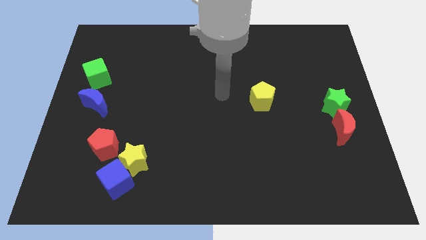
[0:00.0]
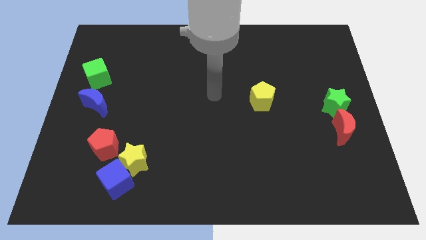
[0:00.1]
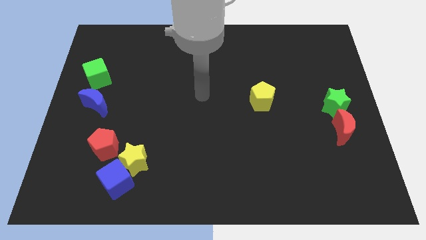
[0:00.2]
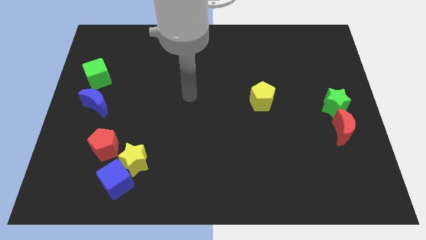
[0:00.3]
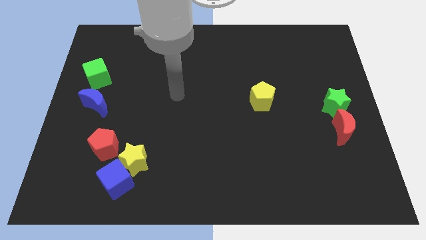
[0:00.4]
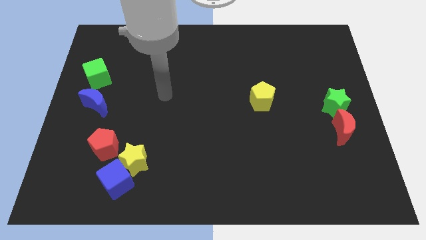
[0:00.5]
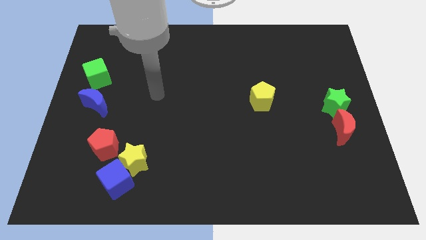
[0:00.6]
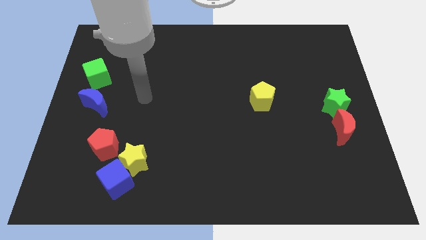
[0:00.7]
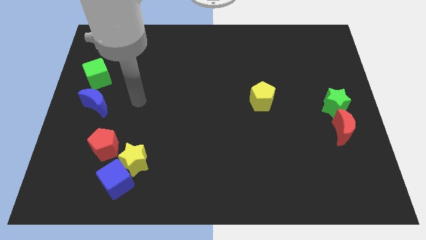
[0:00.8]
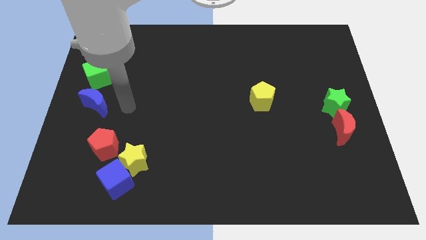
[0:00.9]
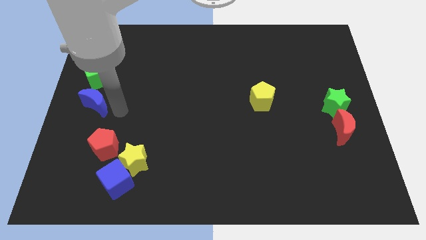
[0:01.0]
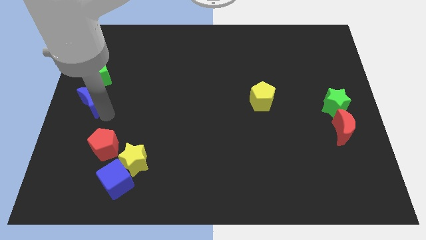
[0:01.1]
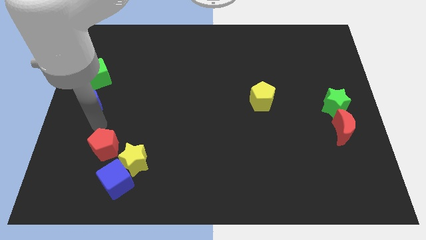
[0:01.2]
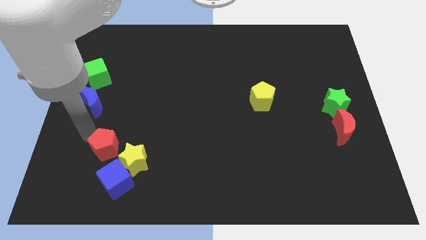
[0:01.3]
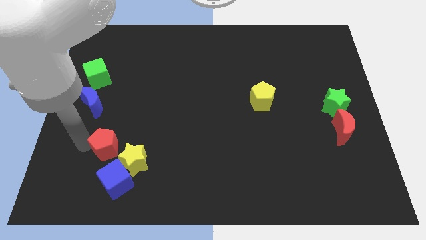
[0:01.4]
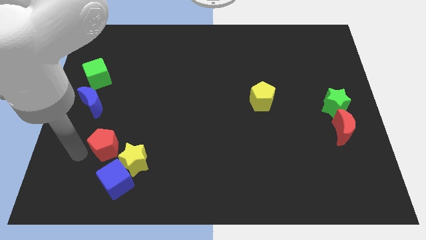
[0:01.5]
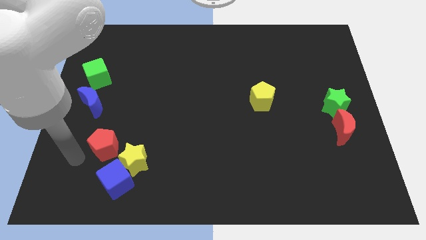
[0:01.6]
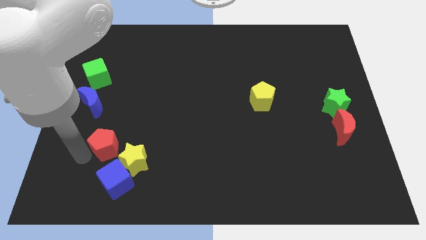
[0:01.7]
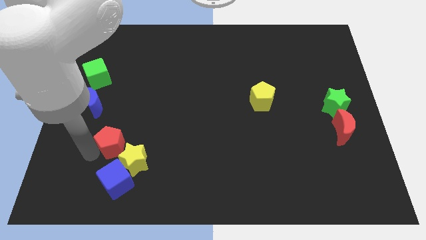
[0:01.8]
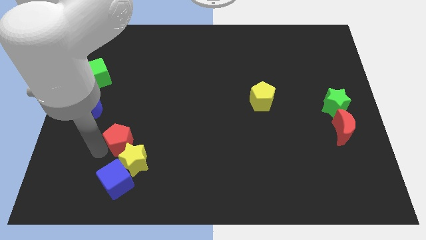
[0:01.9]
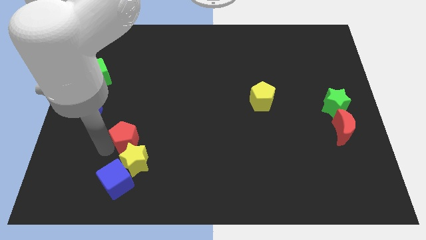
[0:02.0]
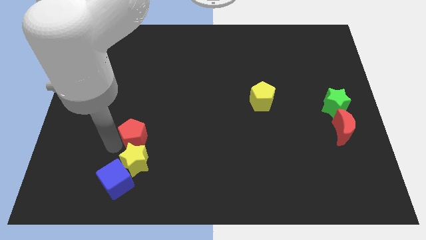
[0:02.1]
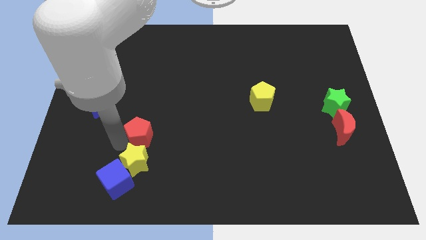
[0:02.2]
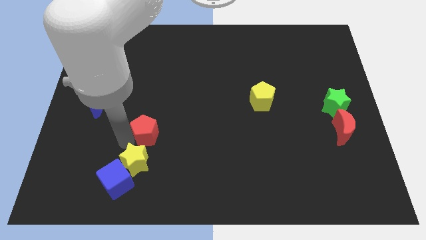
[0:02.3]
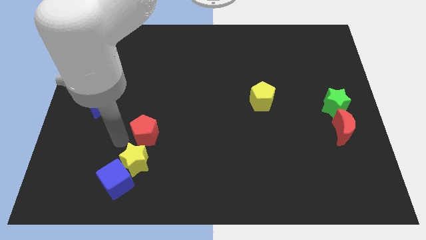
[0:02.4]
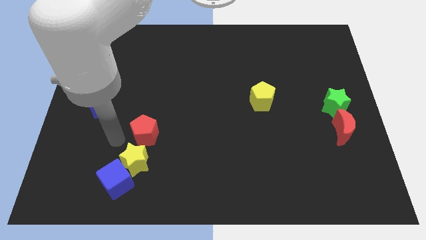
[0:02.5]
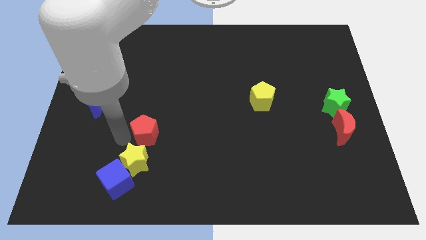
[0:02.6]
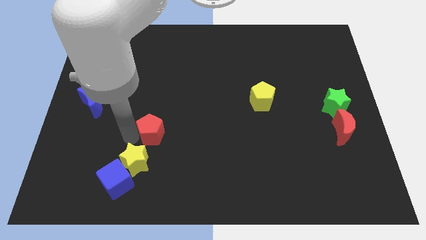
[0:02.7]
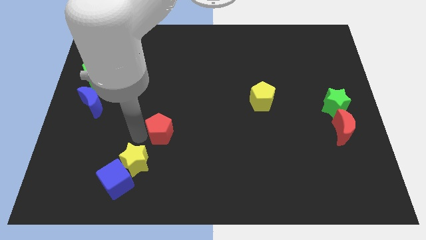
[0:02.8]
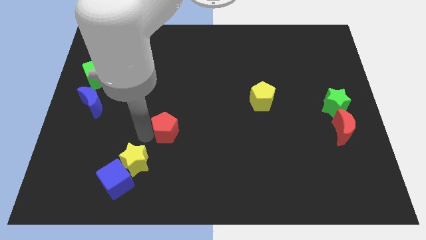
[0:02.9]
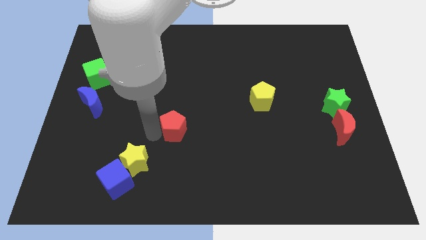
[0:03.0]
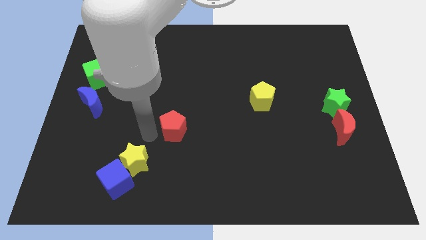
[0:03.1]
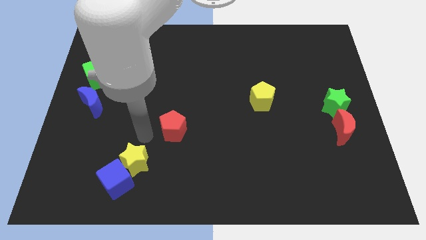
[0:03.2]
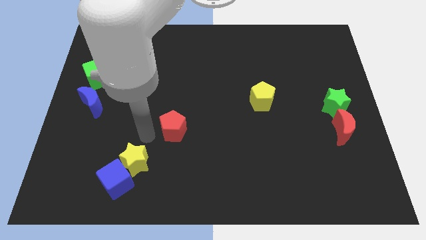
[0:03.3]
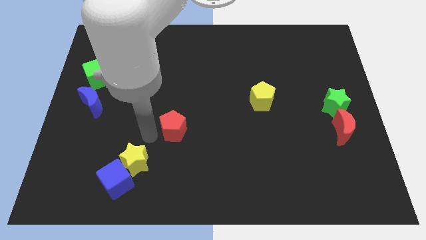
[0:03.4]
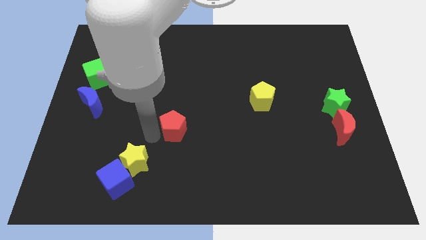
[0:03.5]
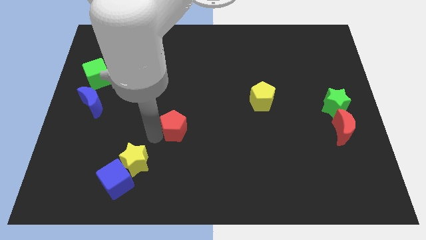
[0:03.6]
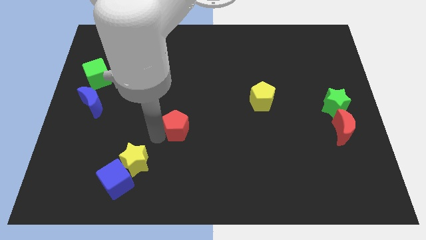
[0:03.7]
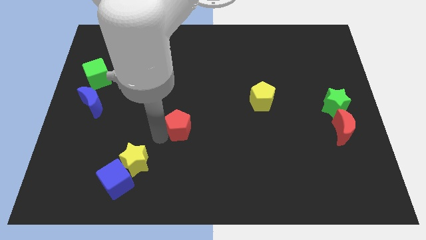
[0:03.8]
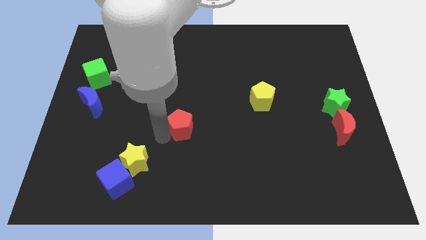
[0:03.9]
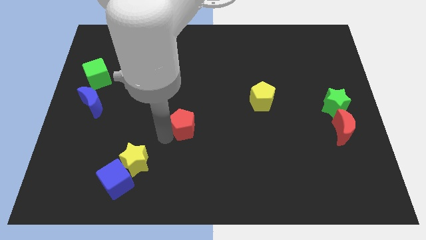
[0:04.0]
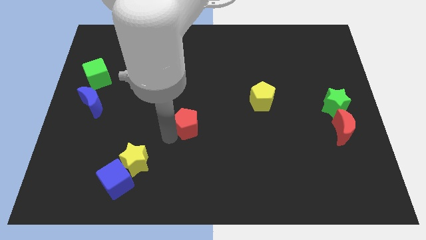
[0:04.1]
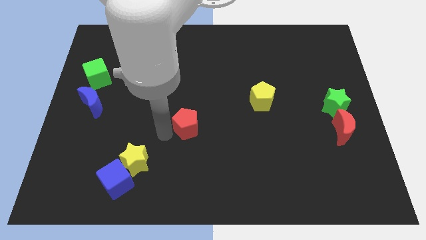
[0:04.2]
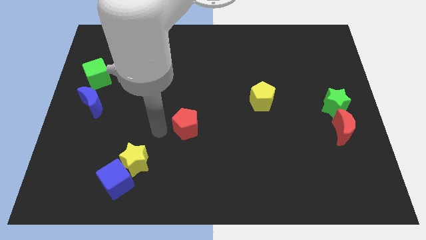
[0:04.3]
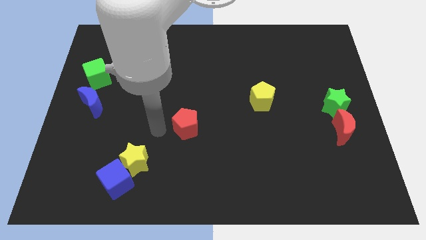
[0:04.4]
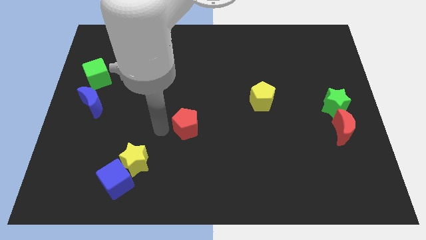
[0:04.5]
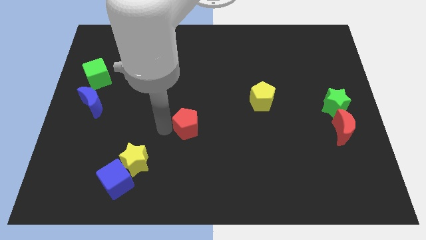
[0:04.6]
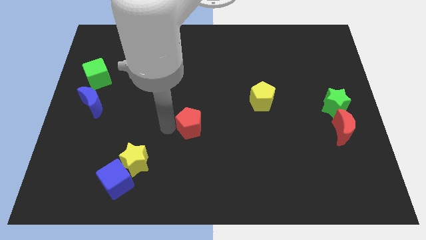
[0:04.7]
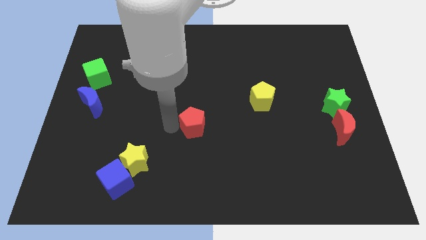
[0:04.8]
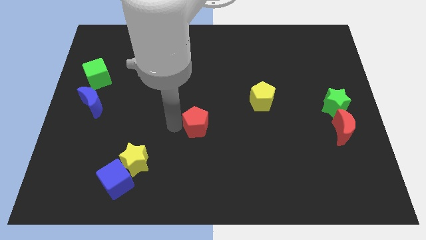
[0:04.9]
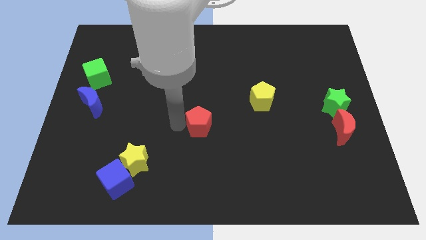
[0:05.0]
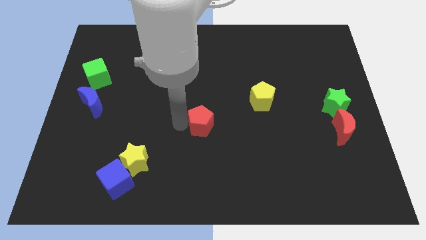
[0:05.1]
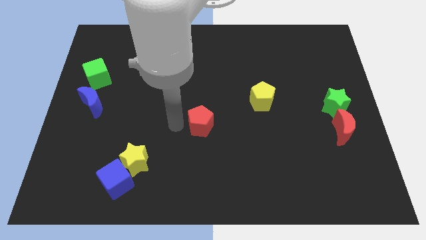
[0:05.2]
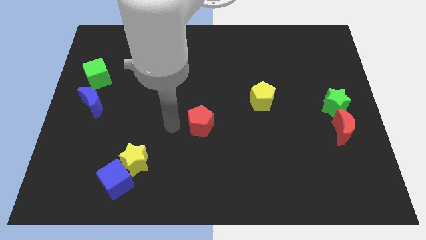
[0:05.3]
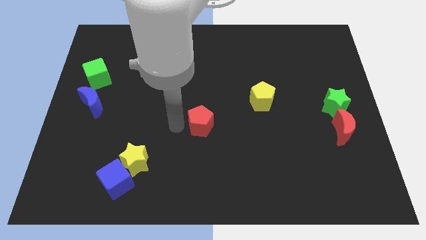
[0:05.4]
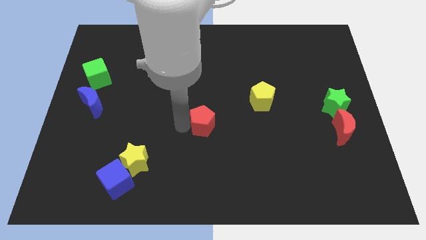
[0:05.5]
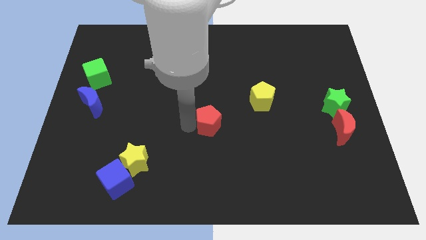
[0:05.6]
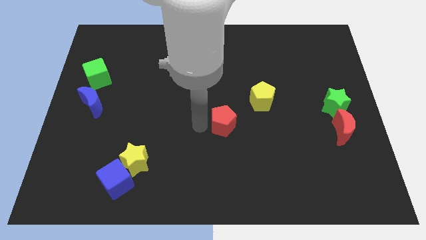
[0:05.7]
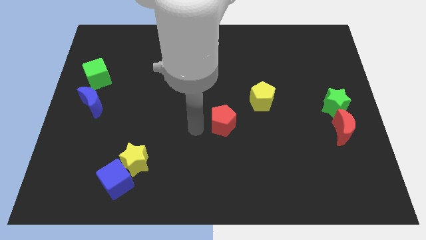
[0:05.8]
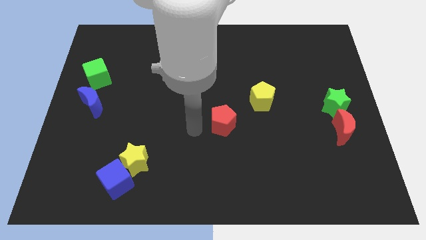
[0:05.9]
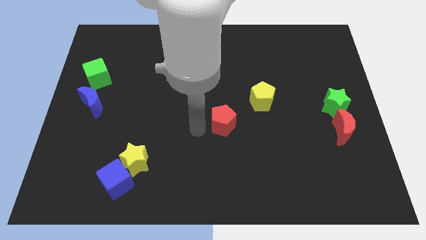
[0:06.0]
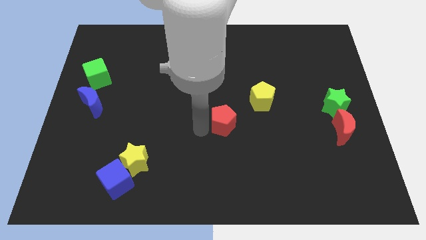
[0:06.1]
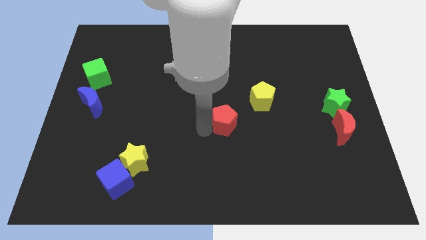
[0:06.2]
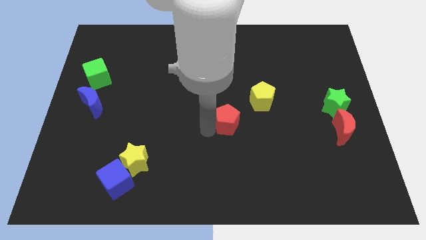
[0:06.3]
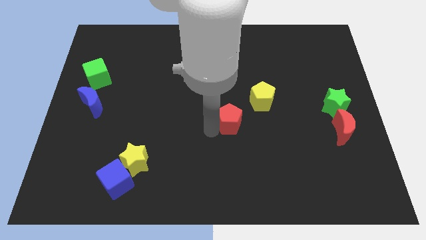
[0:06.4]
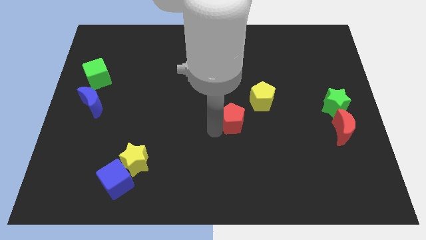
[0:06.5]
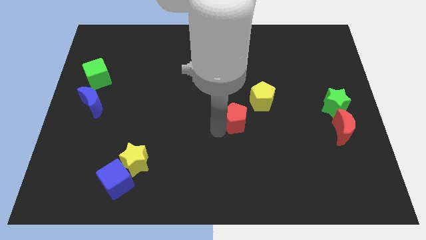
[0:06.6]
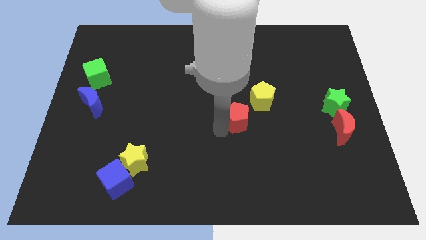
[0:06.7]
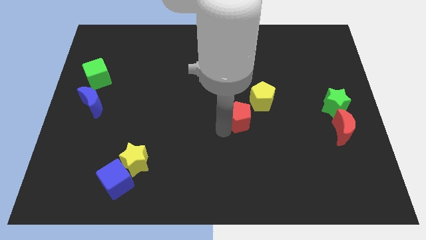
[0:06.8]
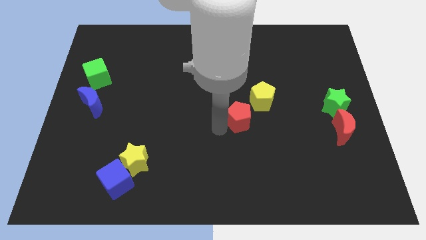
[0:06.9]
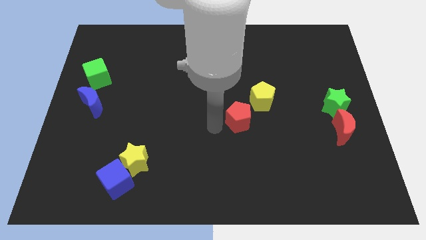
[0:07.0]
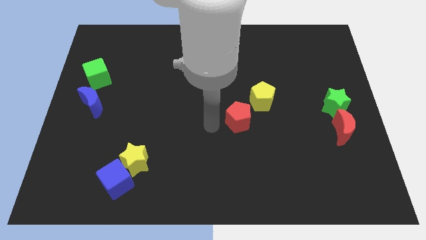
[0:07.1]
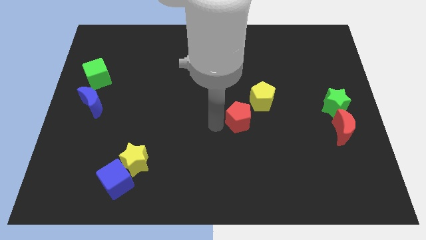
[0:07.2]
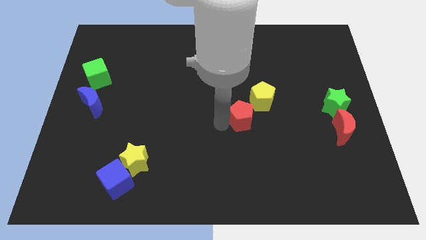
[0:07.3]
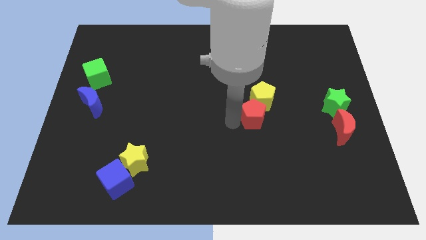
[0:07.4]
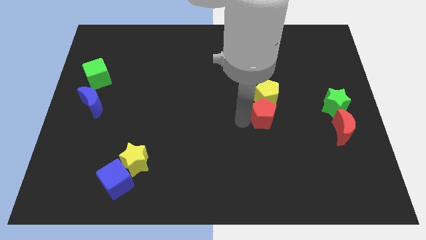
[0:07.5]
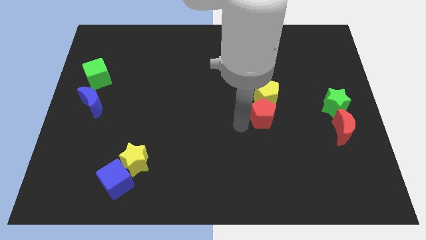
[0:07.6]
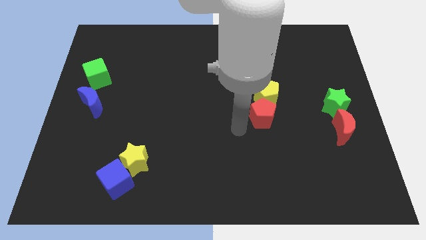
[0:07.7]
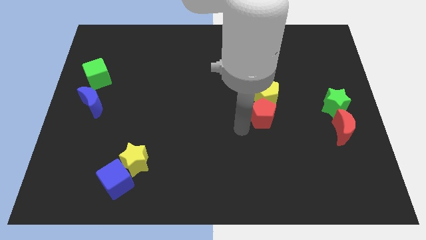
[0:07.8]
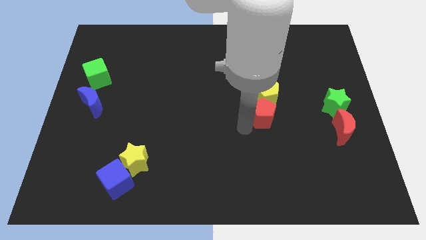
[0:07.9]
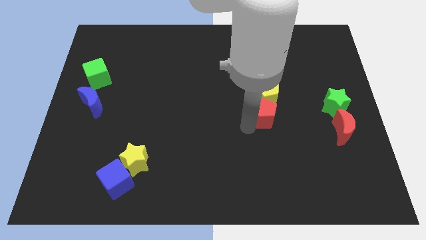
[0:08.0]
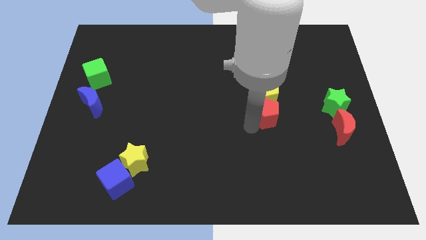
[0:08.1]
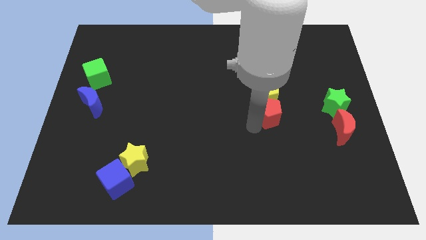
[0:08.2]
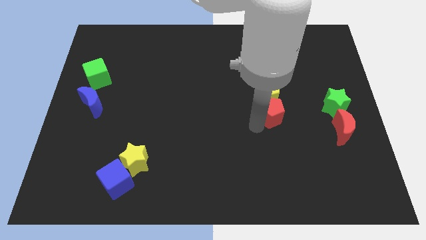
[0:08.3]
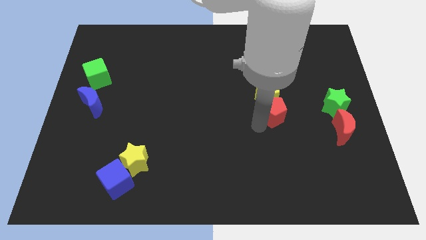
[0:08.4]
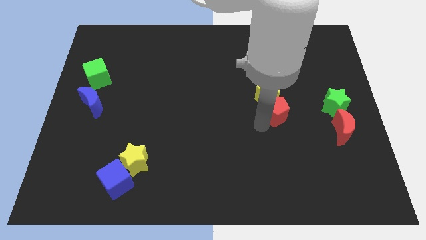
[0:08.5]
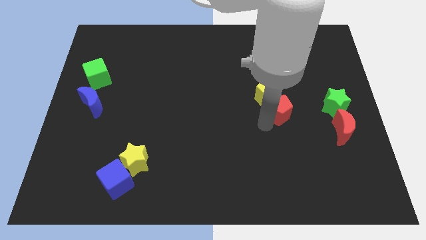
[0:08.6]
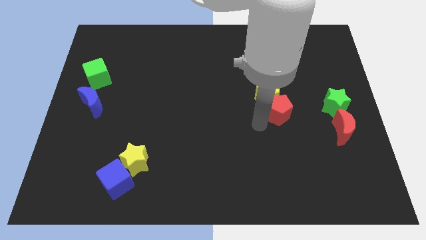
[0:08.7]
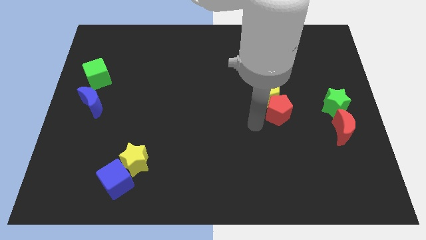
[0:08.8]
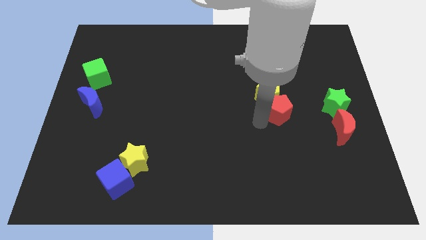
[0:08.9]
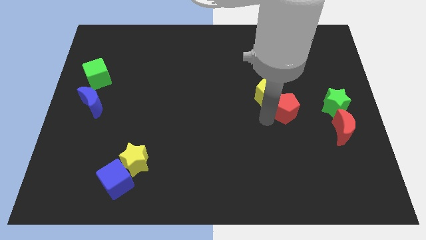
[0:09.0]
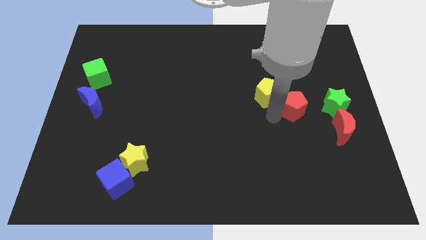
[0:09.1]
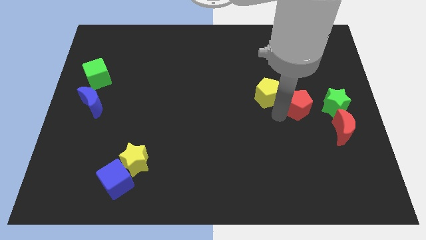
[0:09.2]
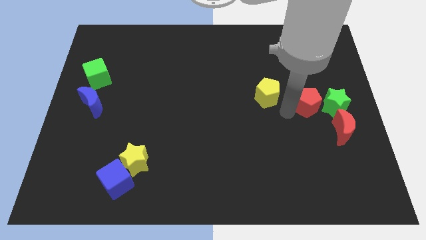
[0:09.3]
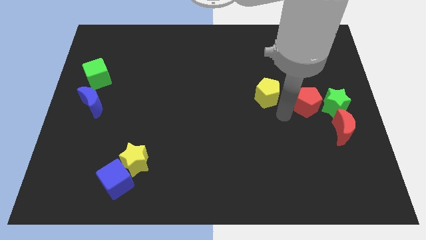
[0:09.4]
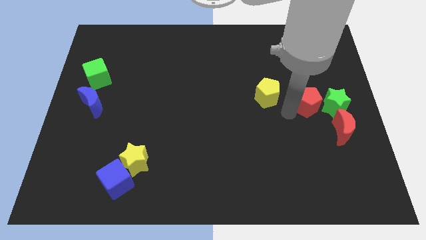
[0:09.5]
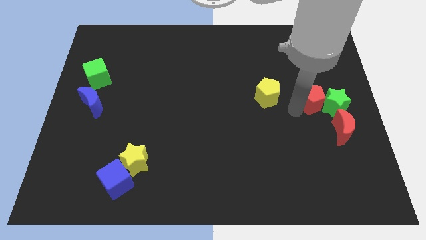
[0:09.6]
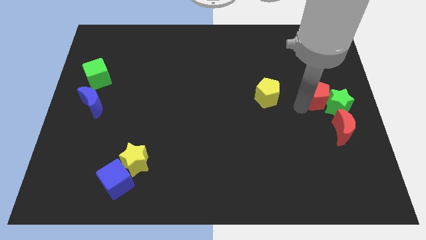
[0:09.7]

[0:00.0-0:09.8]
slide the red pentagon to the top side of the red moon
